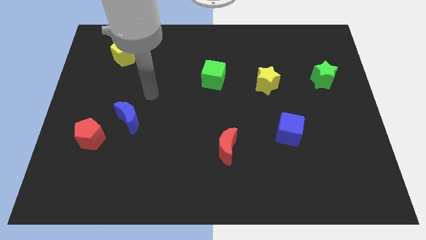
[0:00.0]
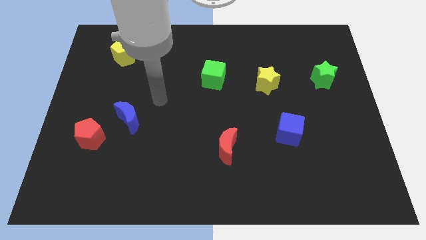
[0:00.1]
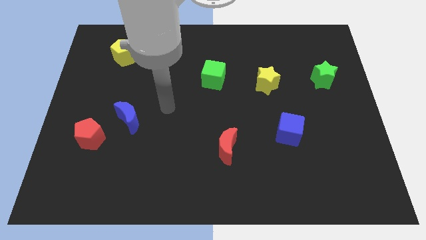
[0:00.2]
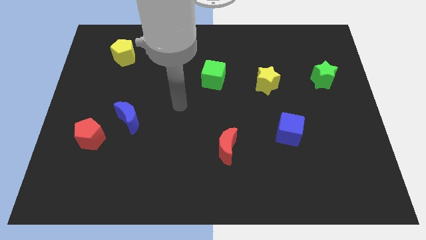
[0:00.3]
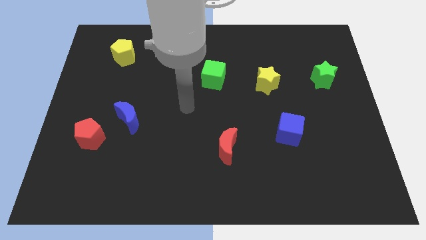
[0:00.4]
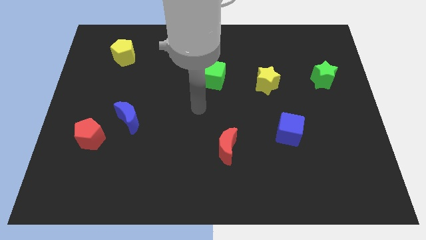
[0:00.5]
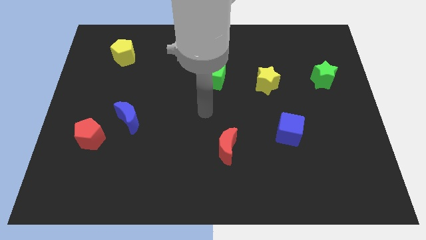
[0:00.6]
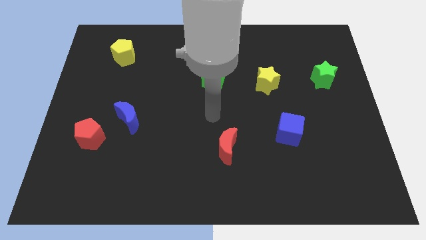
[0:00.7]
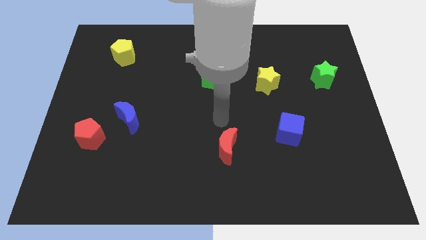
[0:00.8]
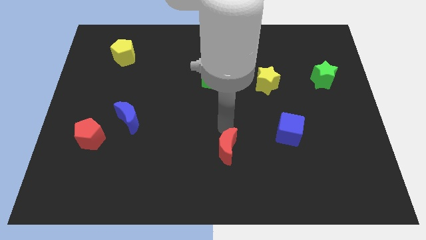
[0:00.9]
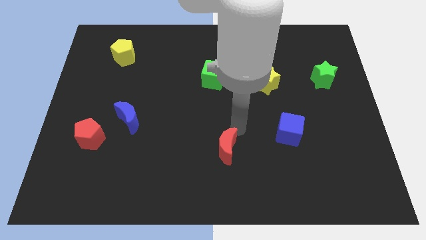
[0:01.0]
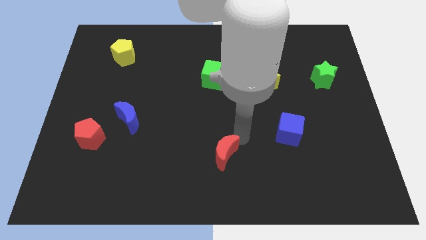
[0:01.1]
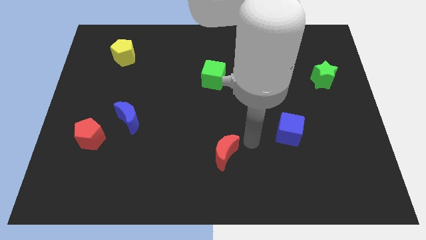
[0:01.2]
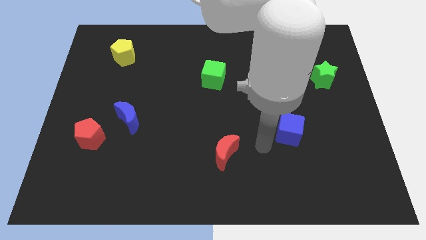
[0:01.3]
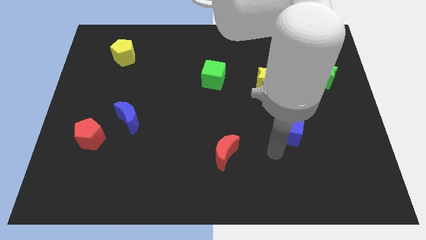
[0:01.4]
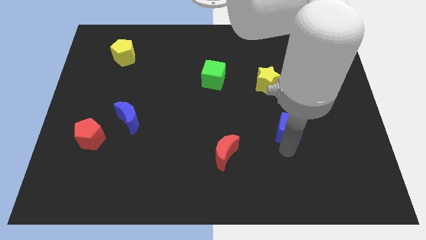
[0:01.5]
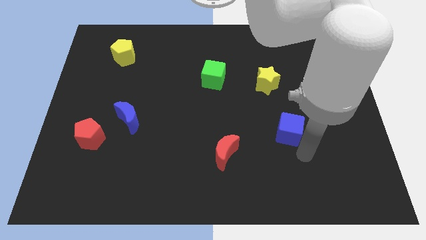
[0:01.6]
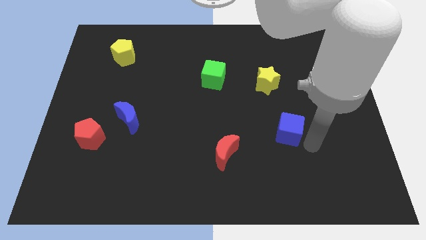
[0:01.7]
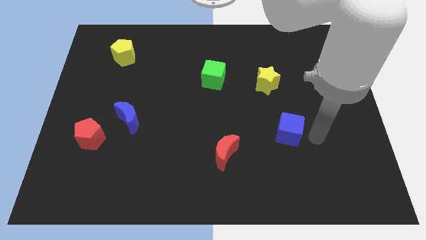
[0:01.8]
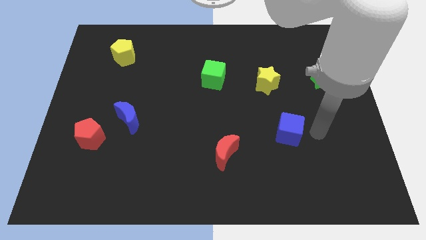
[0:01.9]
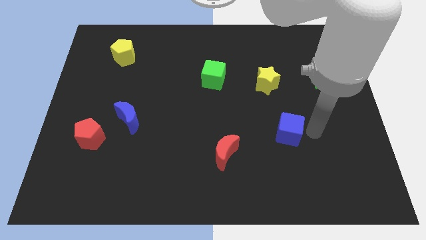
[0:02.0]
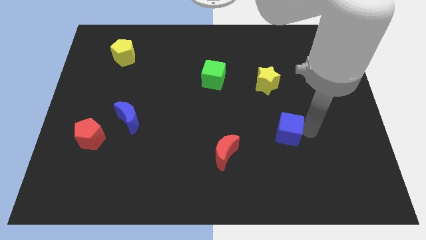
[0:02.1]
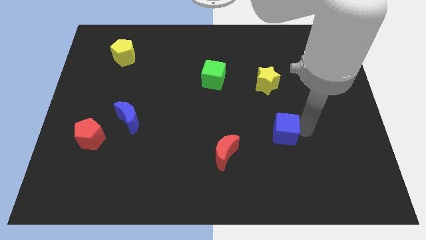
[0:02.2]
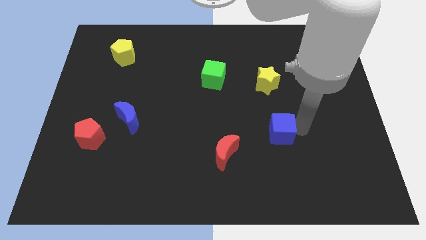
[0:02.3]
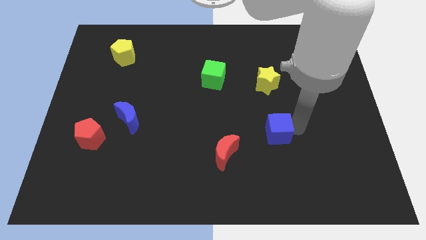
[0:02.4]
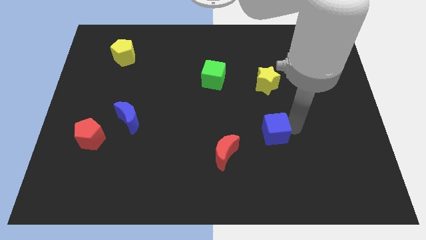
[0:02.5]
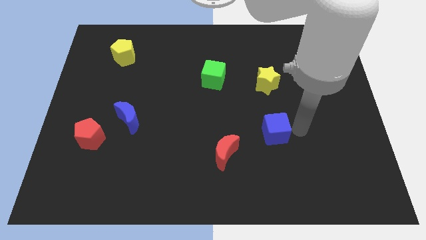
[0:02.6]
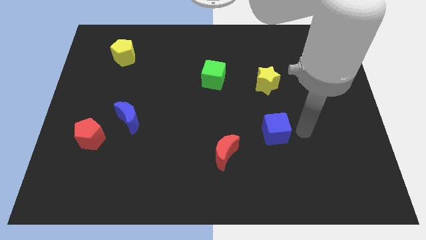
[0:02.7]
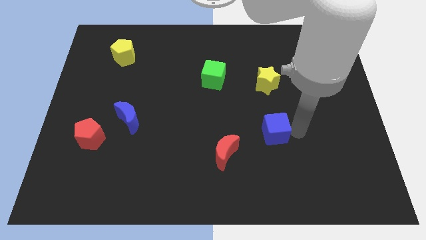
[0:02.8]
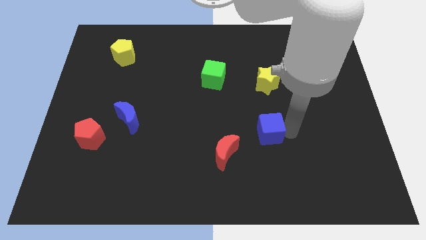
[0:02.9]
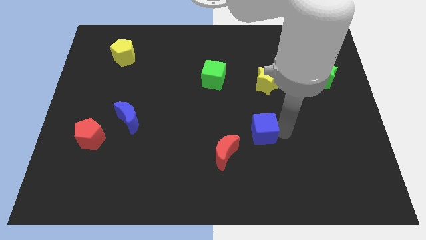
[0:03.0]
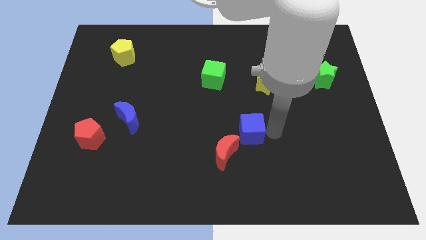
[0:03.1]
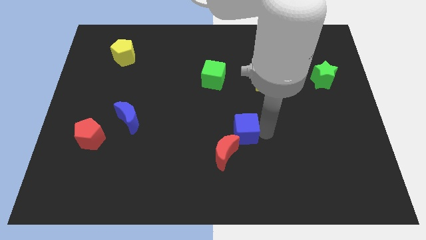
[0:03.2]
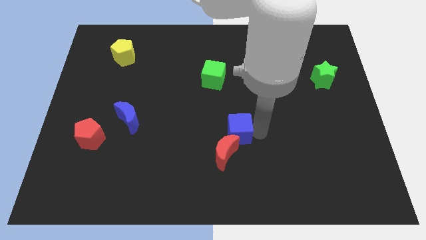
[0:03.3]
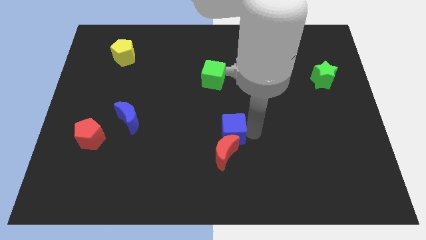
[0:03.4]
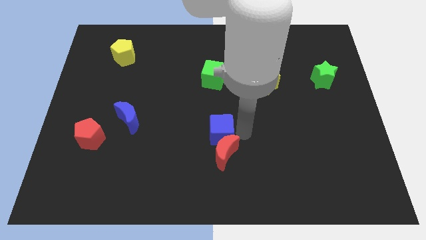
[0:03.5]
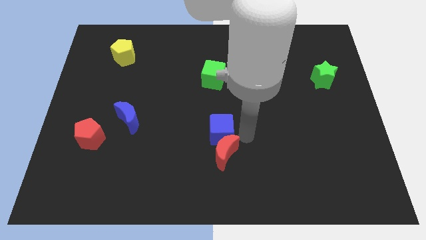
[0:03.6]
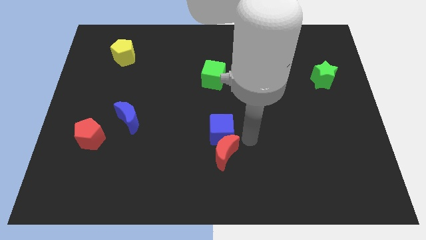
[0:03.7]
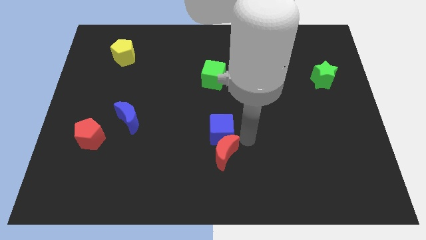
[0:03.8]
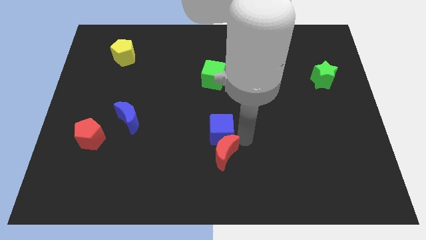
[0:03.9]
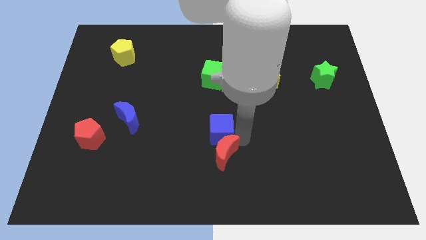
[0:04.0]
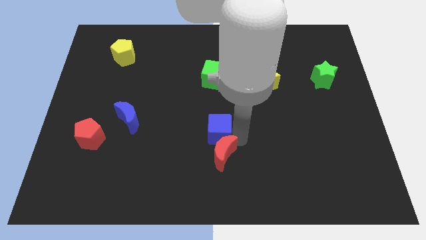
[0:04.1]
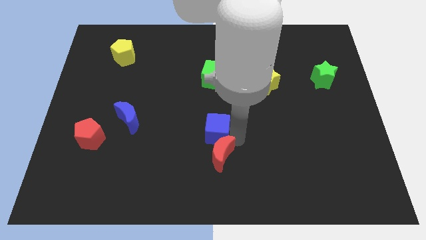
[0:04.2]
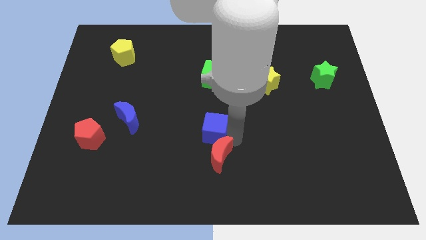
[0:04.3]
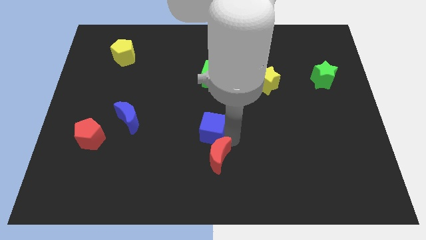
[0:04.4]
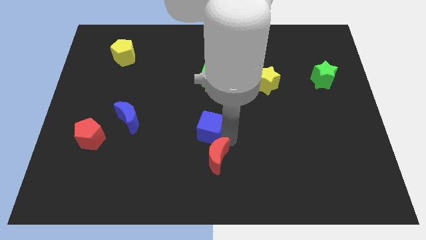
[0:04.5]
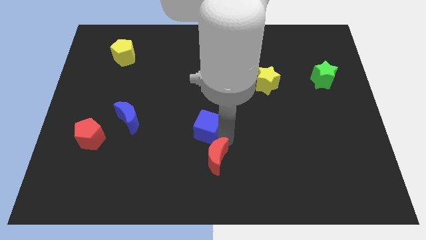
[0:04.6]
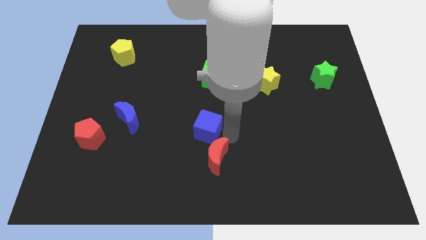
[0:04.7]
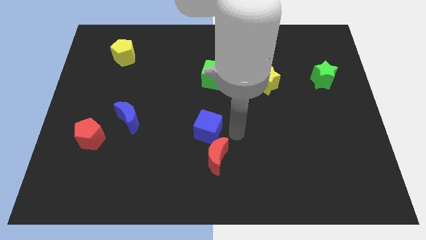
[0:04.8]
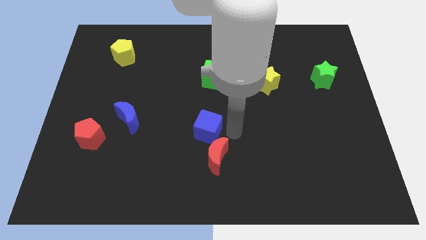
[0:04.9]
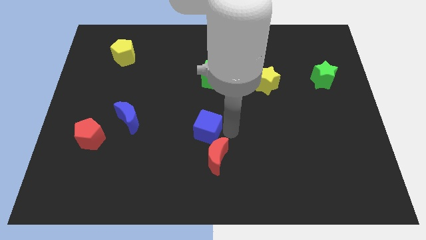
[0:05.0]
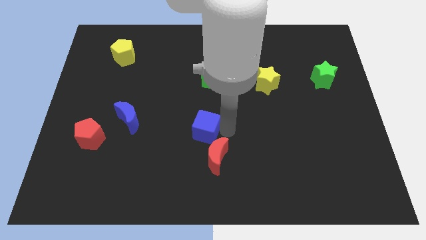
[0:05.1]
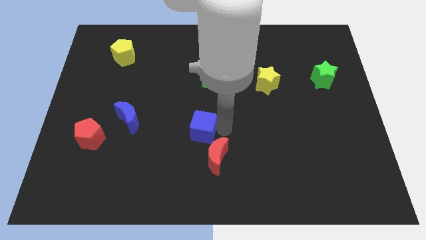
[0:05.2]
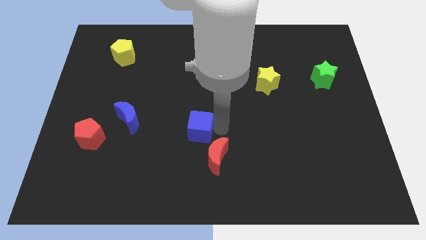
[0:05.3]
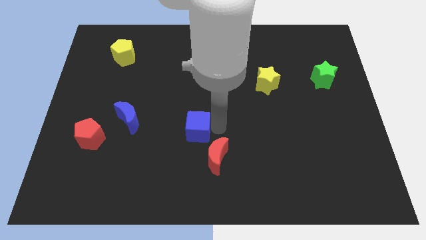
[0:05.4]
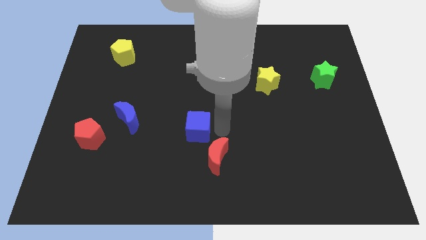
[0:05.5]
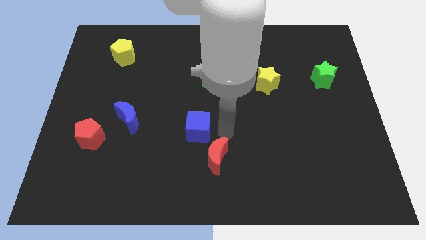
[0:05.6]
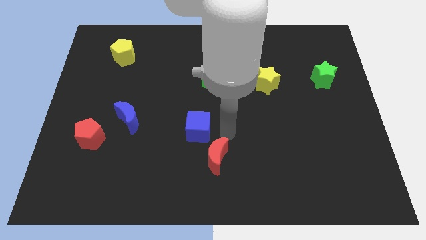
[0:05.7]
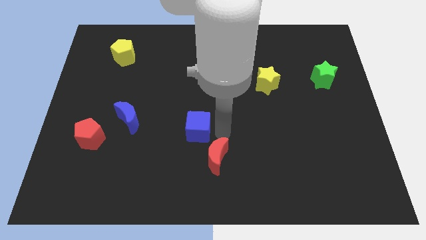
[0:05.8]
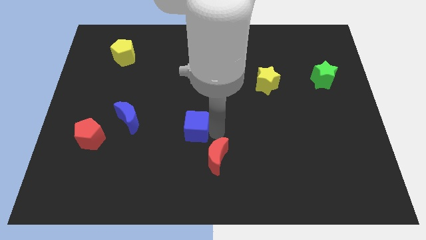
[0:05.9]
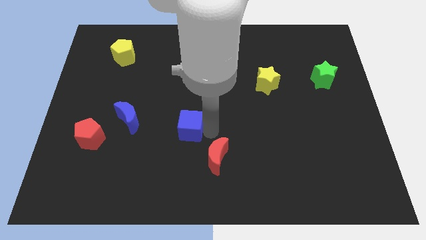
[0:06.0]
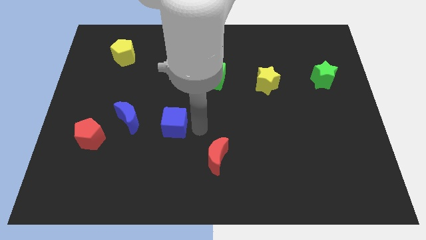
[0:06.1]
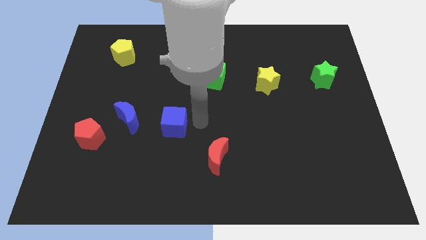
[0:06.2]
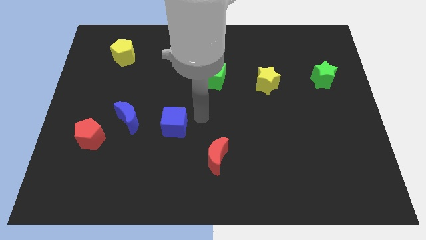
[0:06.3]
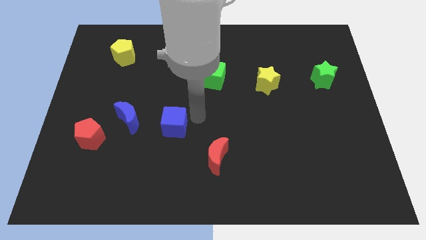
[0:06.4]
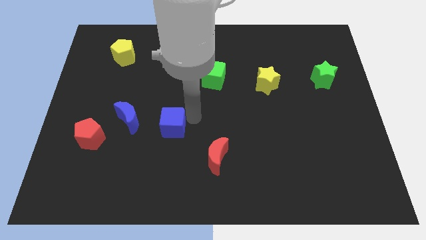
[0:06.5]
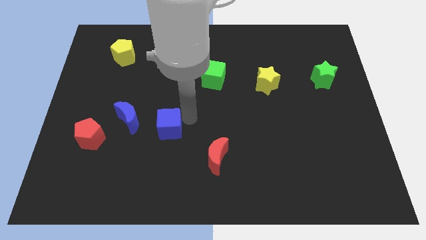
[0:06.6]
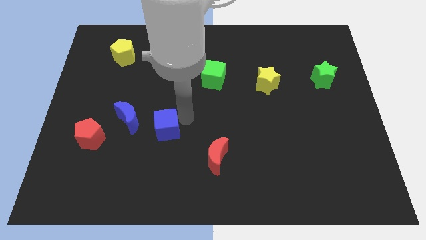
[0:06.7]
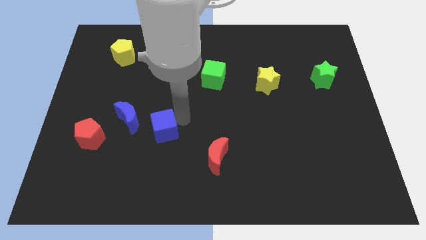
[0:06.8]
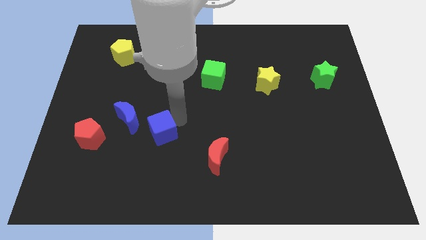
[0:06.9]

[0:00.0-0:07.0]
move the blue cube just right of the red pentagon

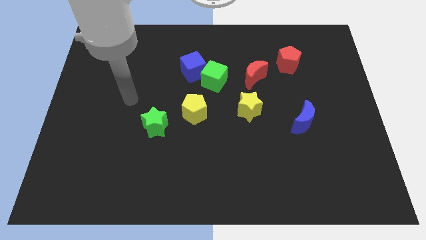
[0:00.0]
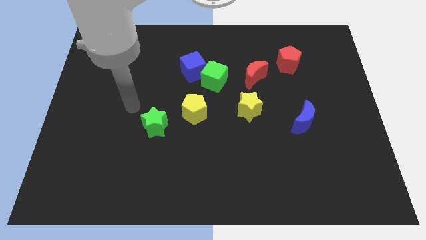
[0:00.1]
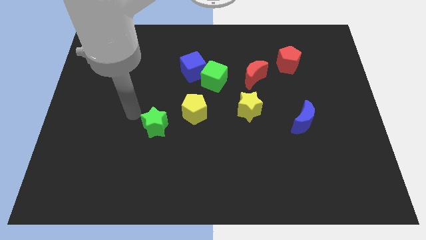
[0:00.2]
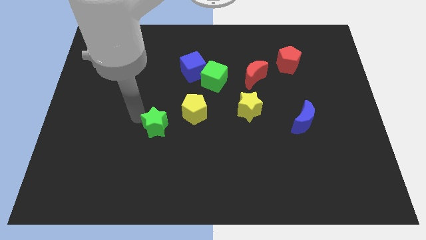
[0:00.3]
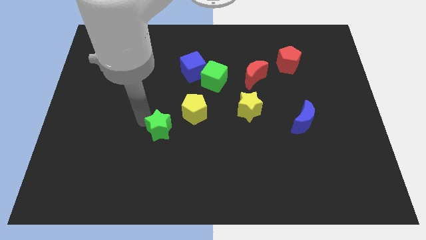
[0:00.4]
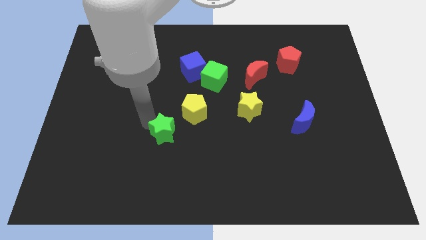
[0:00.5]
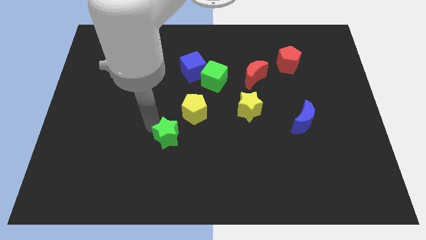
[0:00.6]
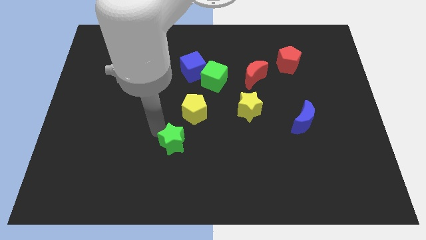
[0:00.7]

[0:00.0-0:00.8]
move the green star to the bottom side of the yellow pentagon
